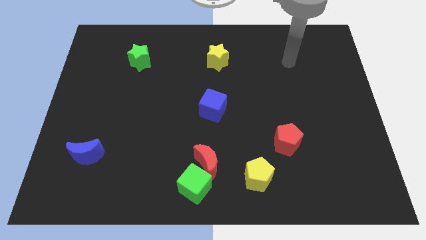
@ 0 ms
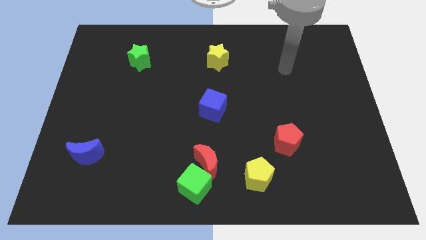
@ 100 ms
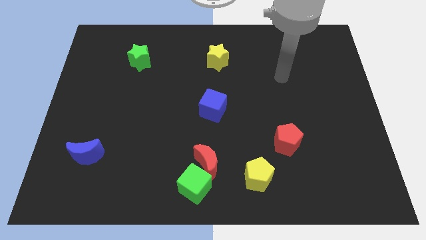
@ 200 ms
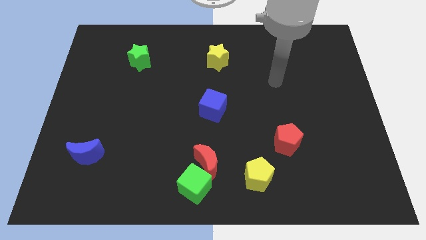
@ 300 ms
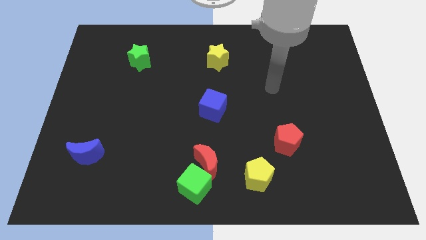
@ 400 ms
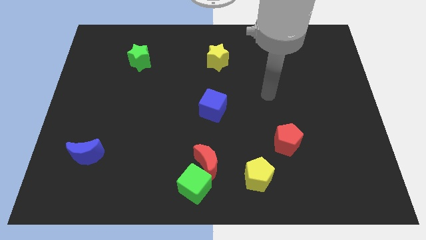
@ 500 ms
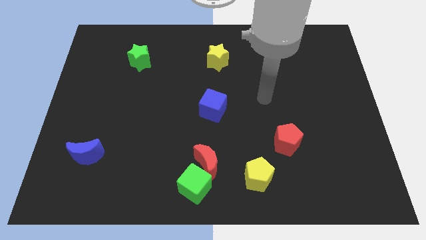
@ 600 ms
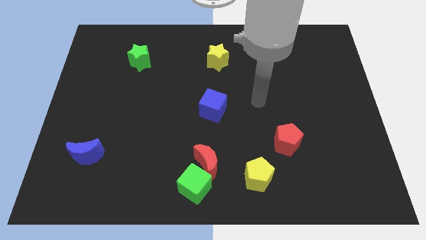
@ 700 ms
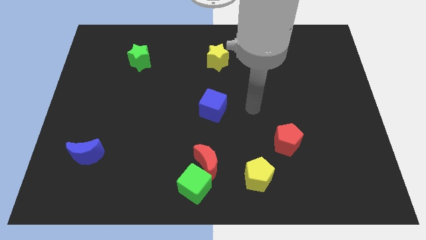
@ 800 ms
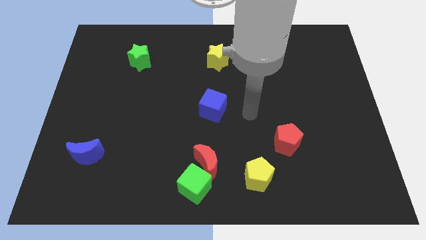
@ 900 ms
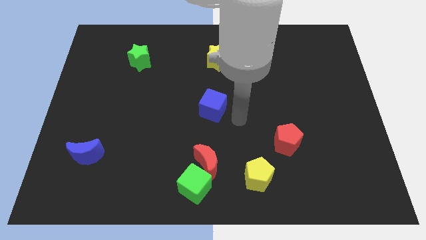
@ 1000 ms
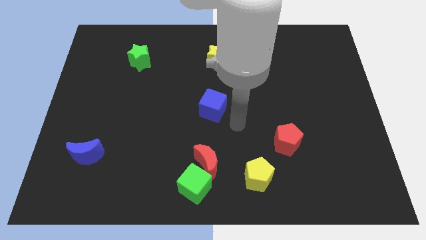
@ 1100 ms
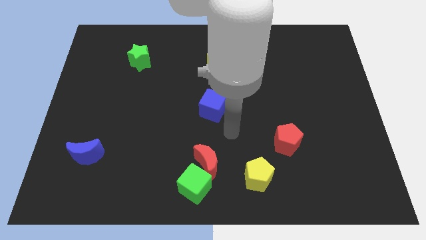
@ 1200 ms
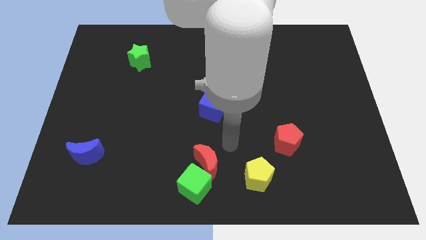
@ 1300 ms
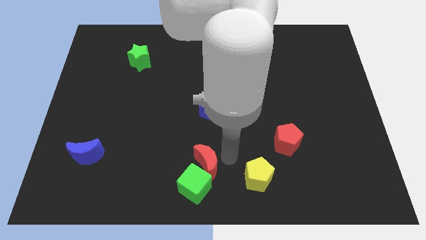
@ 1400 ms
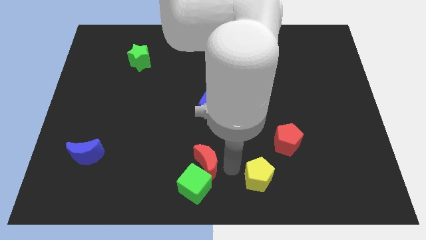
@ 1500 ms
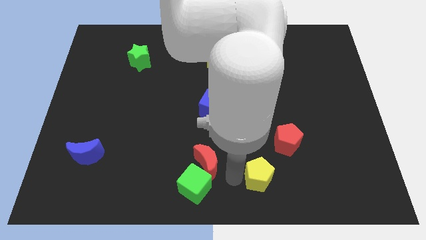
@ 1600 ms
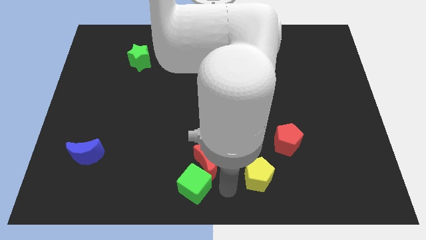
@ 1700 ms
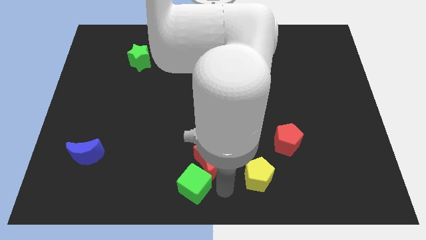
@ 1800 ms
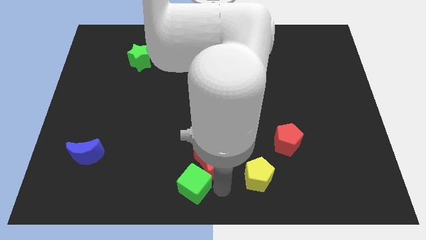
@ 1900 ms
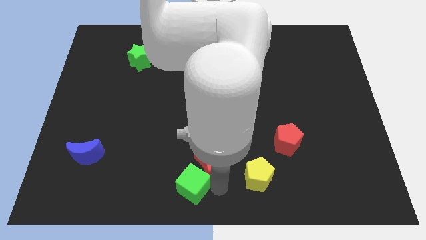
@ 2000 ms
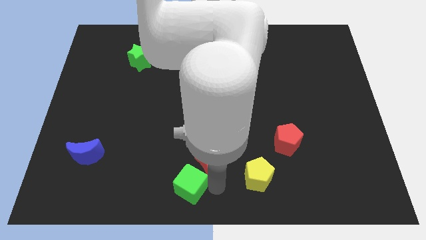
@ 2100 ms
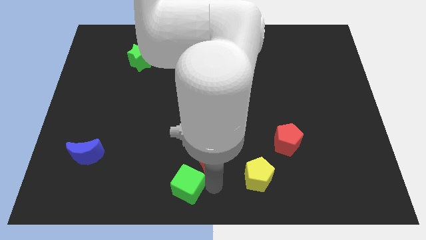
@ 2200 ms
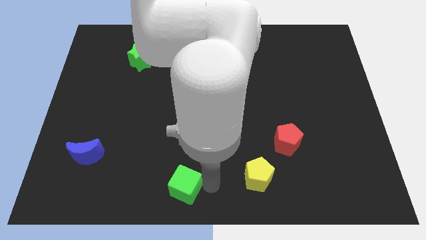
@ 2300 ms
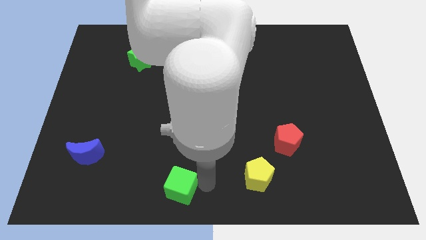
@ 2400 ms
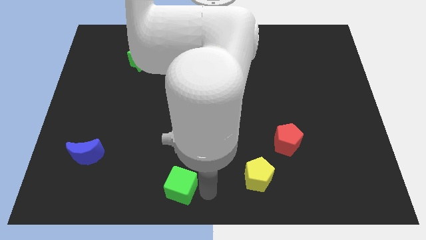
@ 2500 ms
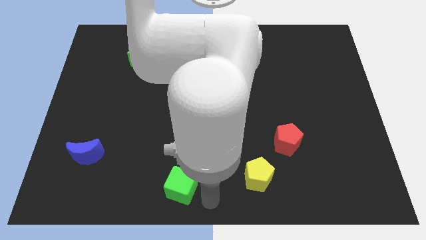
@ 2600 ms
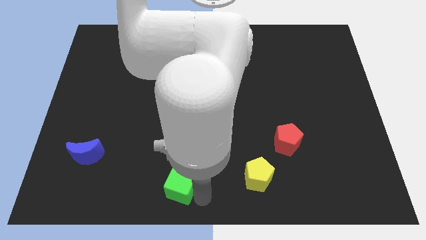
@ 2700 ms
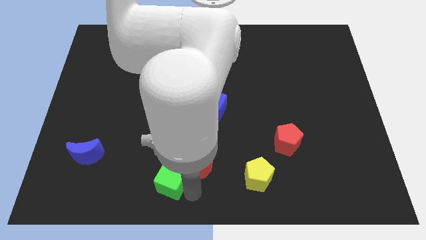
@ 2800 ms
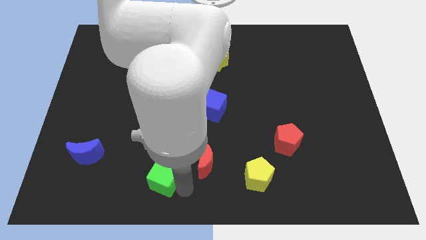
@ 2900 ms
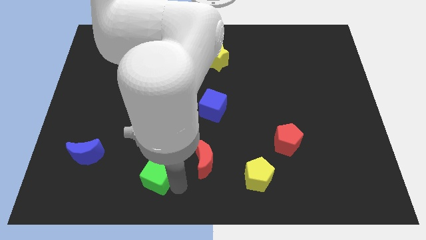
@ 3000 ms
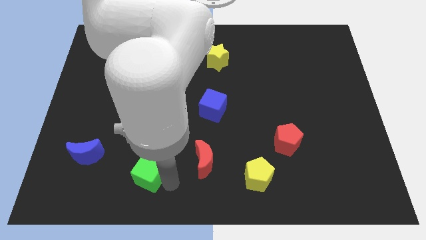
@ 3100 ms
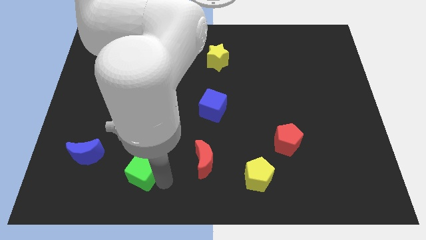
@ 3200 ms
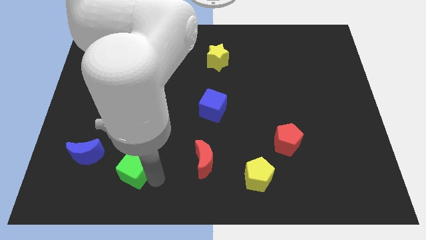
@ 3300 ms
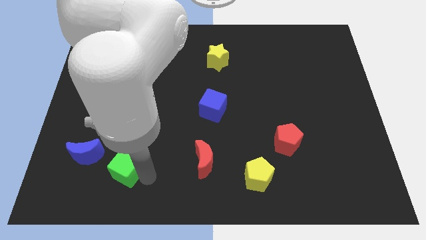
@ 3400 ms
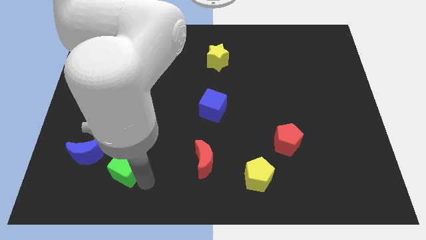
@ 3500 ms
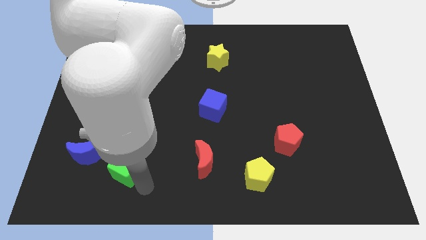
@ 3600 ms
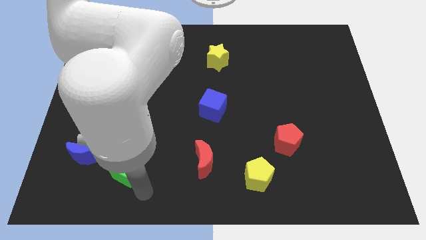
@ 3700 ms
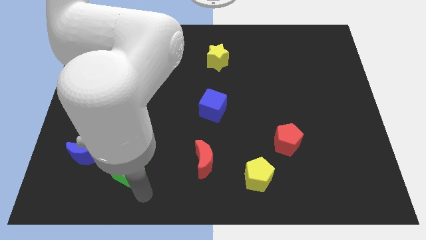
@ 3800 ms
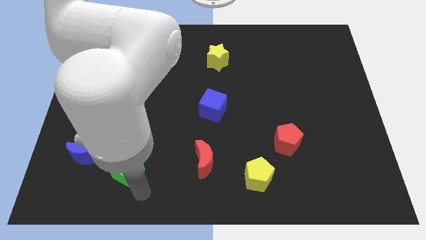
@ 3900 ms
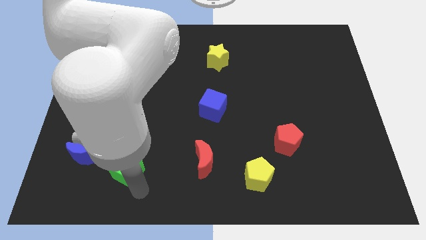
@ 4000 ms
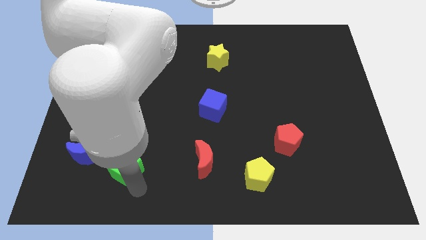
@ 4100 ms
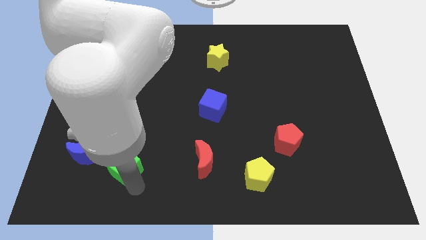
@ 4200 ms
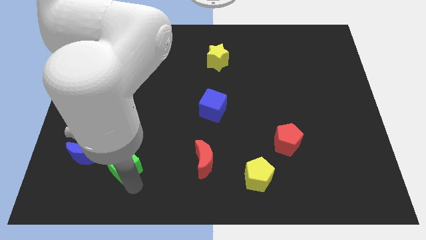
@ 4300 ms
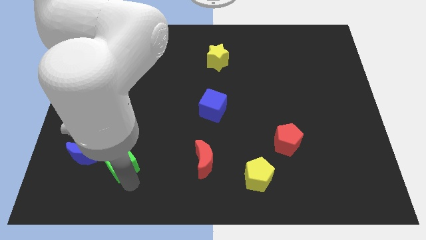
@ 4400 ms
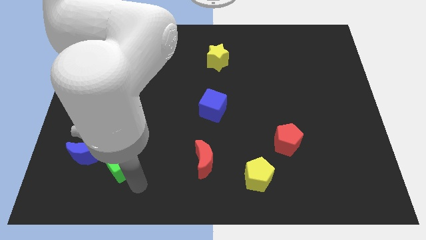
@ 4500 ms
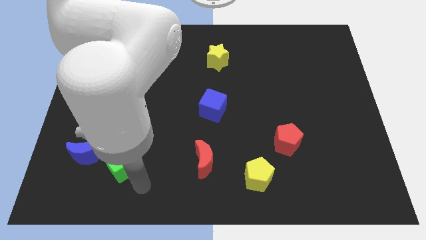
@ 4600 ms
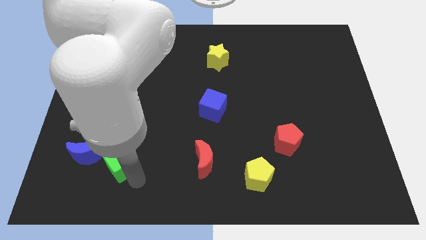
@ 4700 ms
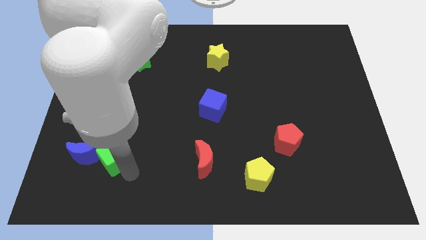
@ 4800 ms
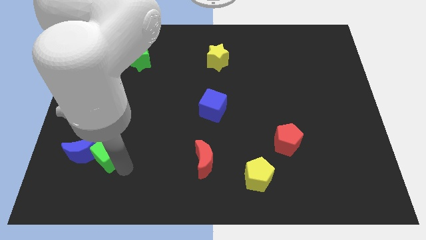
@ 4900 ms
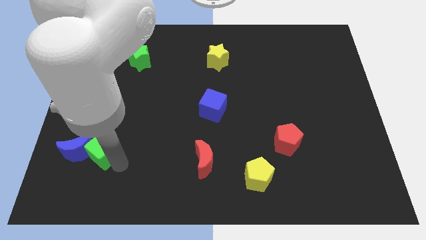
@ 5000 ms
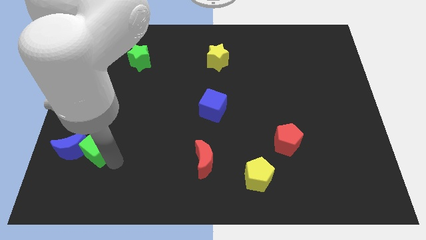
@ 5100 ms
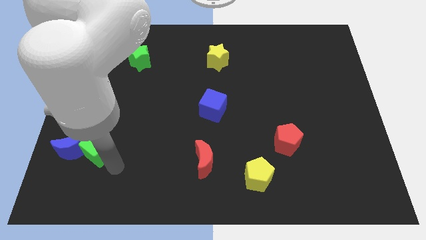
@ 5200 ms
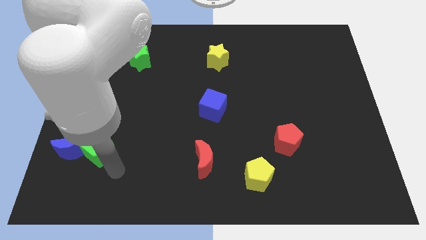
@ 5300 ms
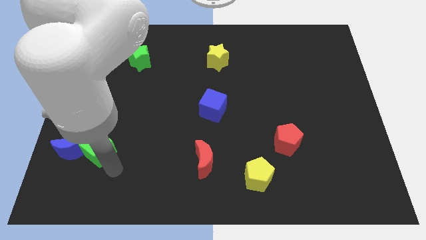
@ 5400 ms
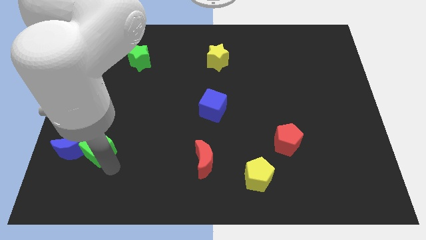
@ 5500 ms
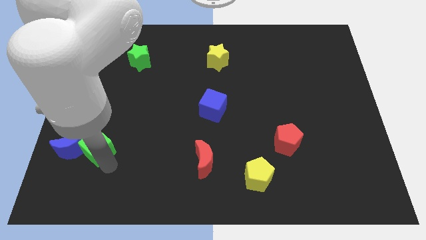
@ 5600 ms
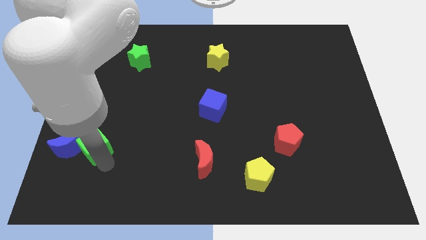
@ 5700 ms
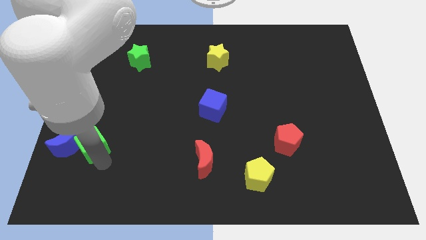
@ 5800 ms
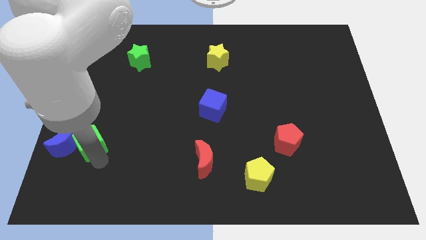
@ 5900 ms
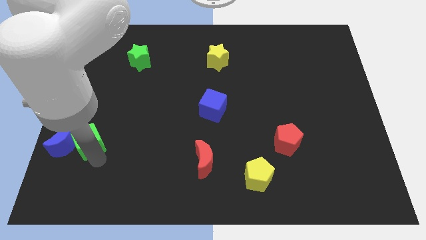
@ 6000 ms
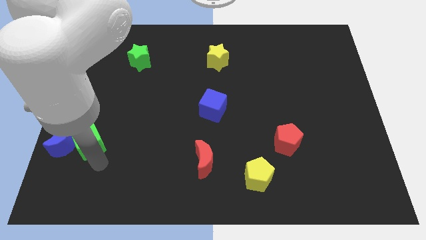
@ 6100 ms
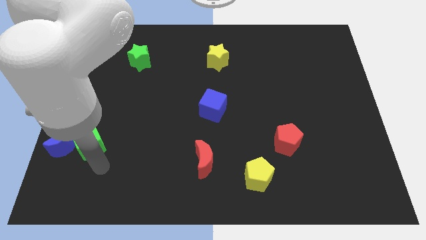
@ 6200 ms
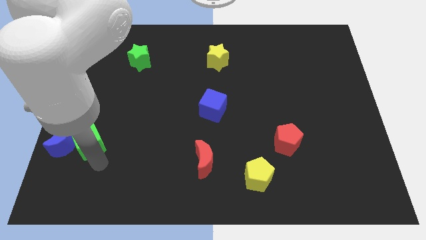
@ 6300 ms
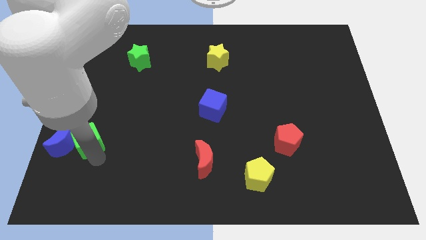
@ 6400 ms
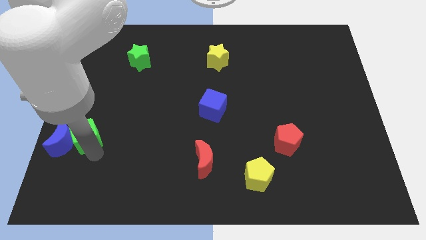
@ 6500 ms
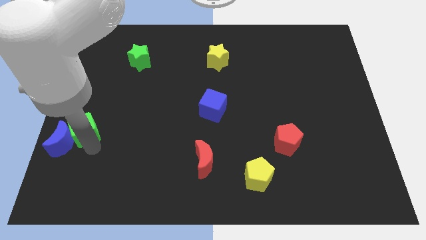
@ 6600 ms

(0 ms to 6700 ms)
push the green cube to the left side
